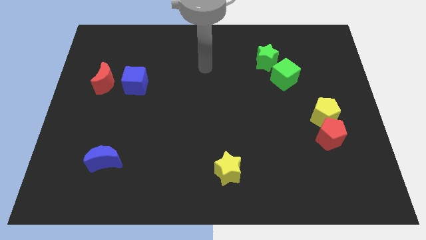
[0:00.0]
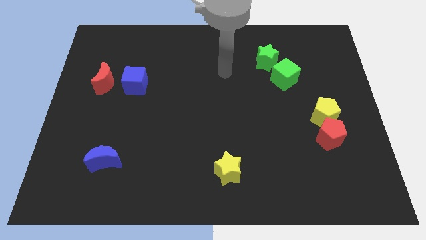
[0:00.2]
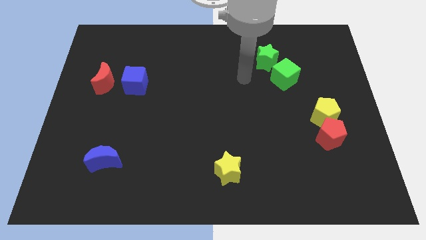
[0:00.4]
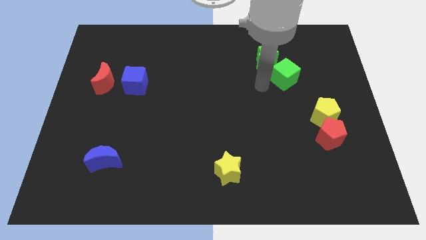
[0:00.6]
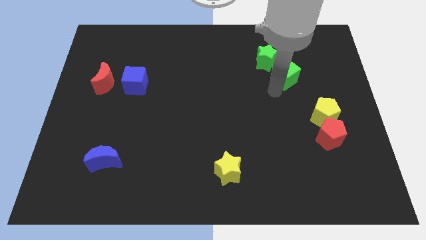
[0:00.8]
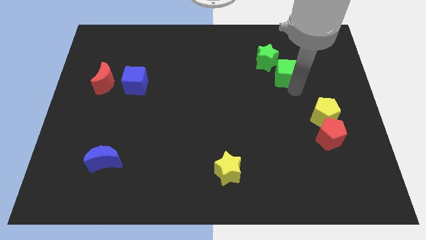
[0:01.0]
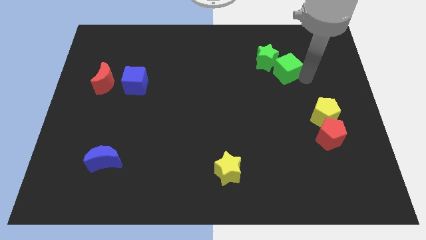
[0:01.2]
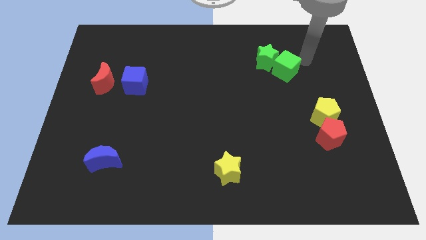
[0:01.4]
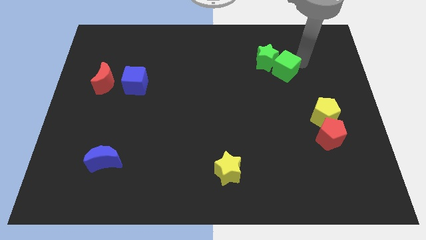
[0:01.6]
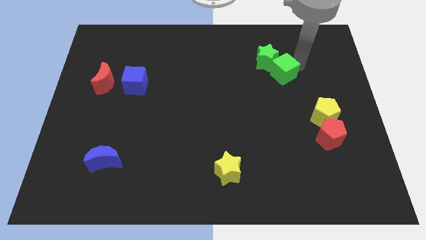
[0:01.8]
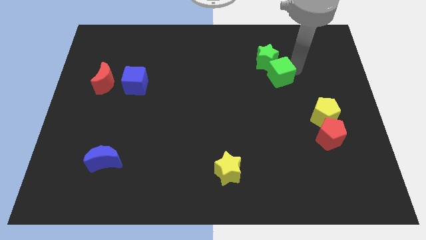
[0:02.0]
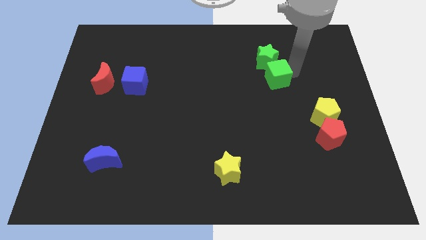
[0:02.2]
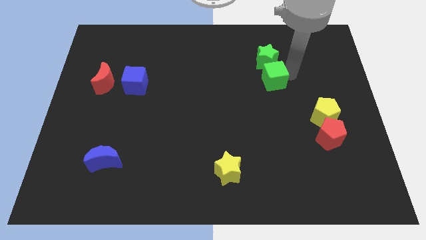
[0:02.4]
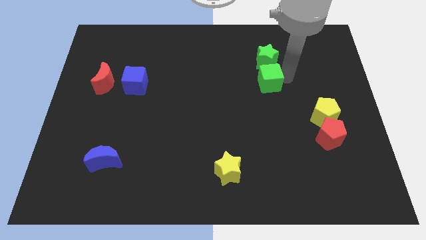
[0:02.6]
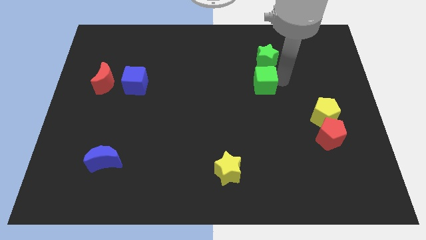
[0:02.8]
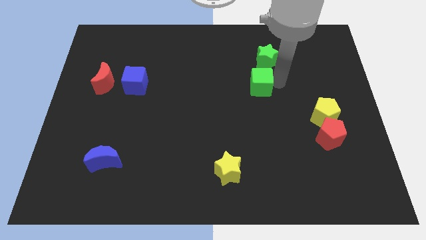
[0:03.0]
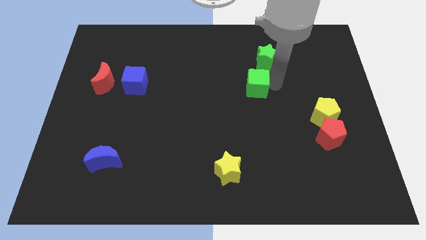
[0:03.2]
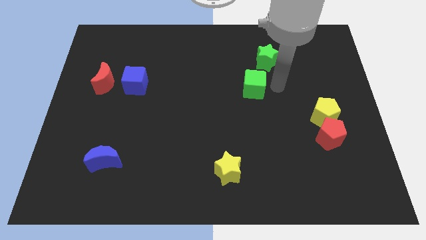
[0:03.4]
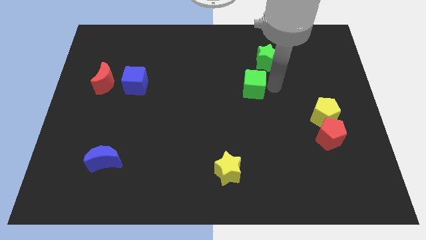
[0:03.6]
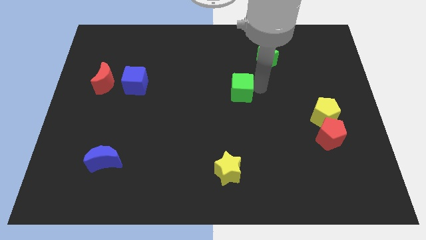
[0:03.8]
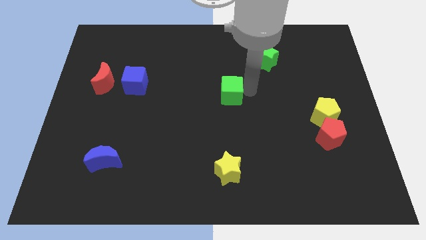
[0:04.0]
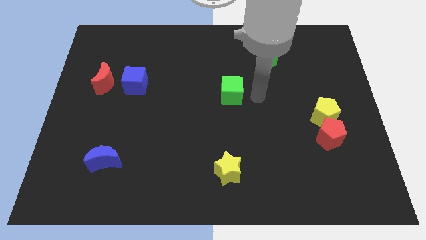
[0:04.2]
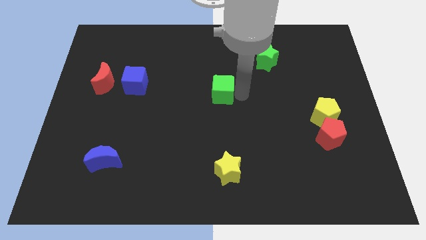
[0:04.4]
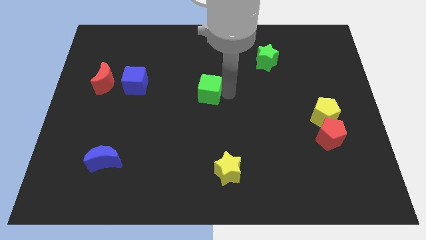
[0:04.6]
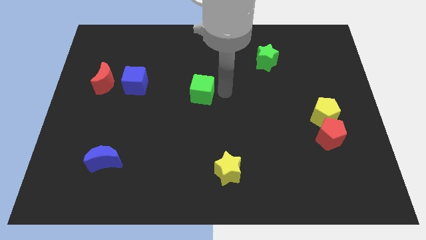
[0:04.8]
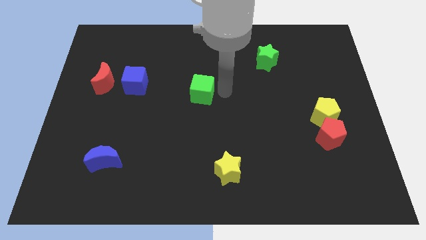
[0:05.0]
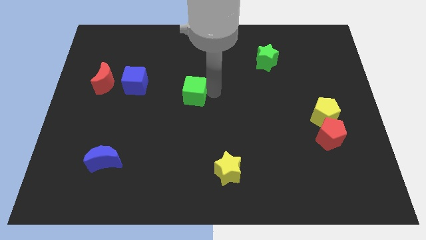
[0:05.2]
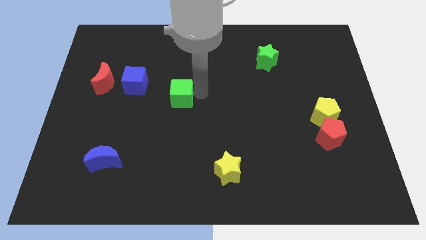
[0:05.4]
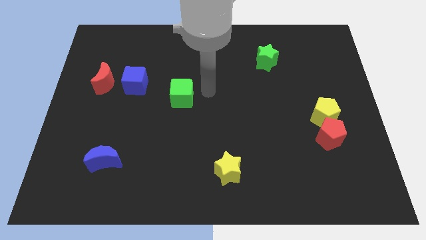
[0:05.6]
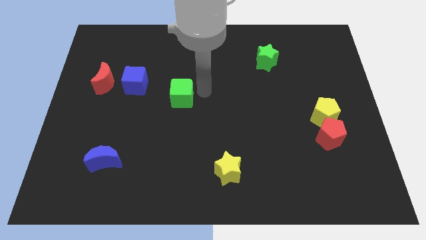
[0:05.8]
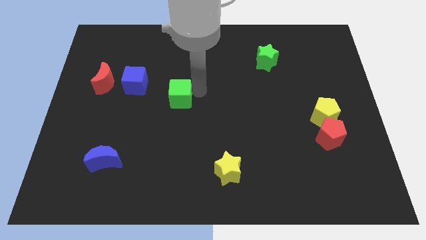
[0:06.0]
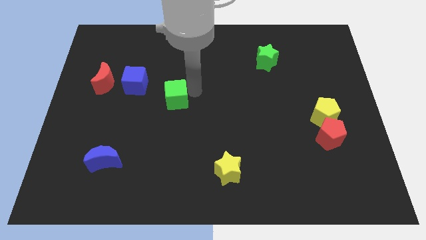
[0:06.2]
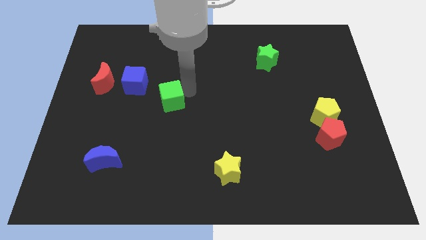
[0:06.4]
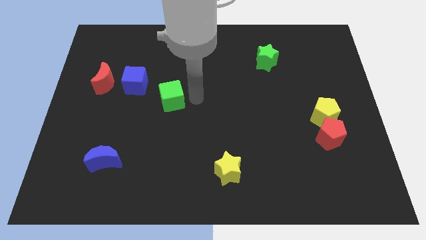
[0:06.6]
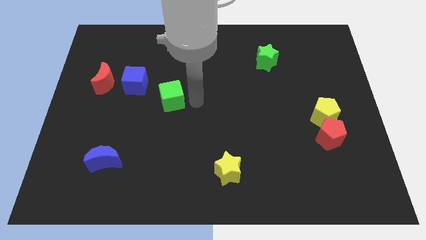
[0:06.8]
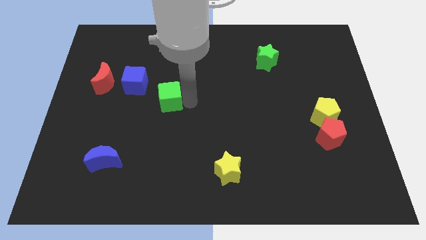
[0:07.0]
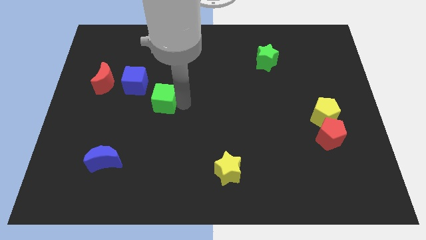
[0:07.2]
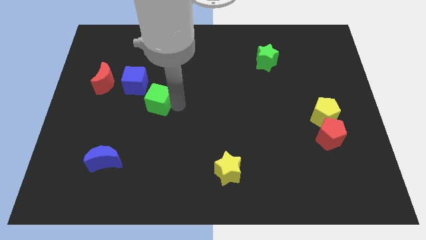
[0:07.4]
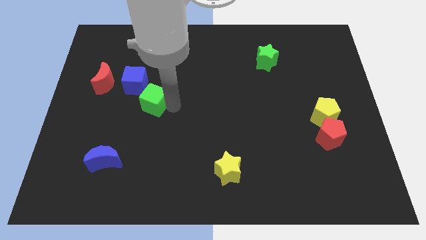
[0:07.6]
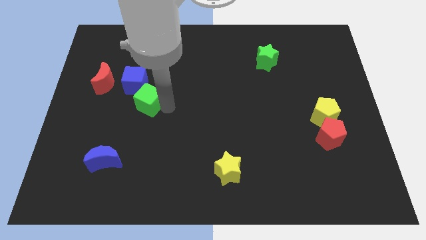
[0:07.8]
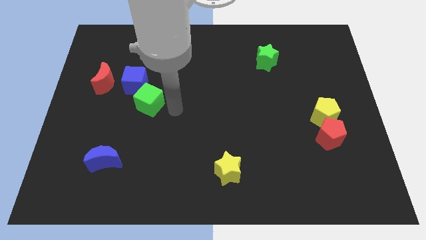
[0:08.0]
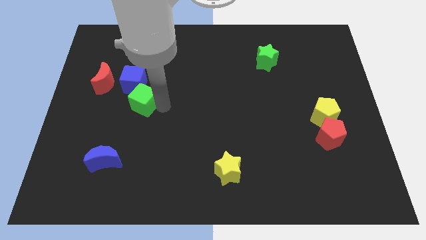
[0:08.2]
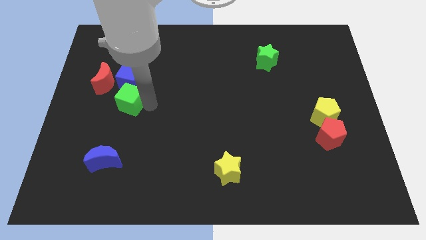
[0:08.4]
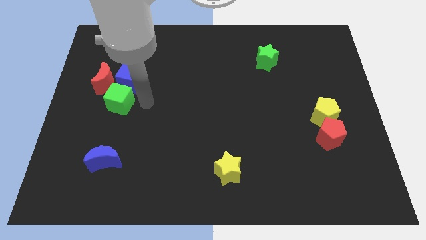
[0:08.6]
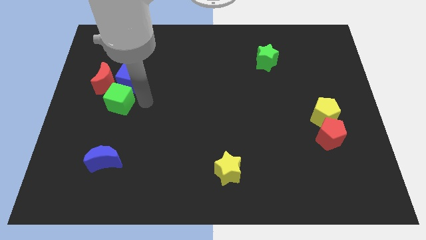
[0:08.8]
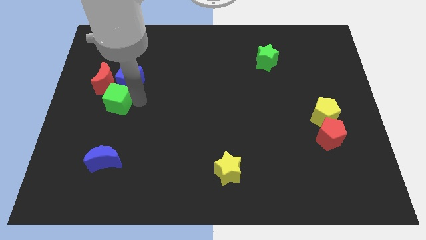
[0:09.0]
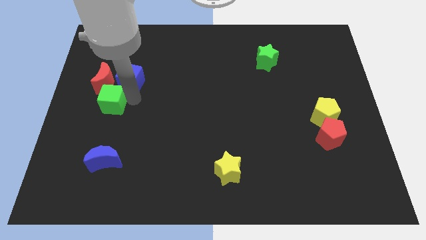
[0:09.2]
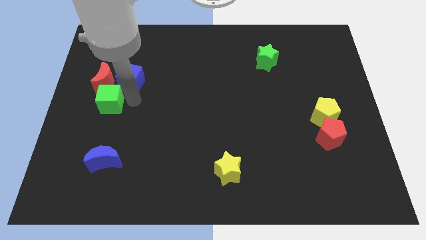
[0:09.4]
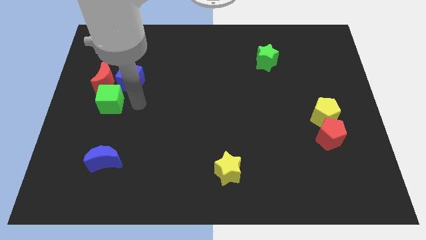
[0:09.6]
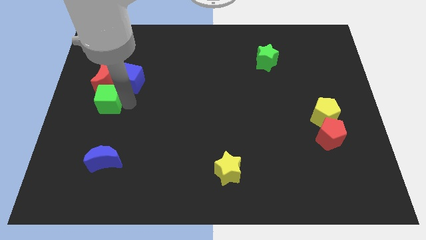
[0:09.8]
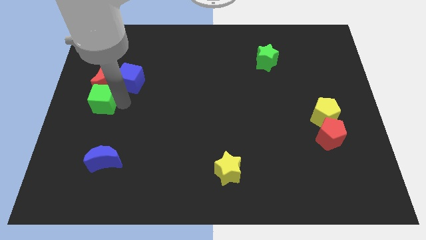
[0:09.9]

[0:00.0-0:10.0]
put the green cube to the left side of the board

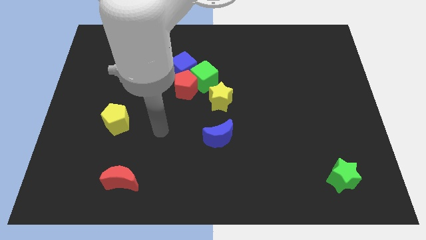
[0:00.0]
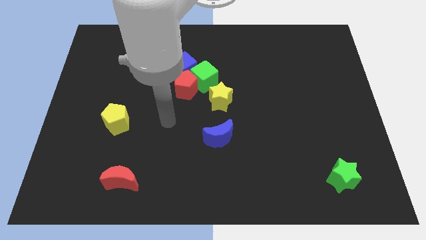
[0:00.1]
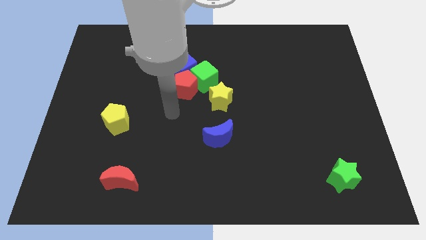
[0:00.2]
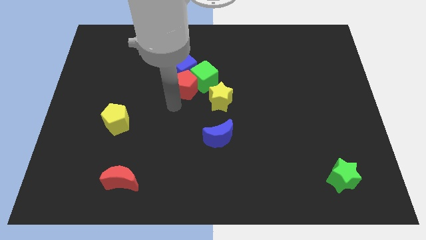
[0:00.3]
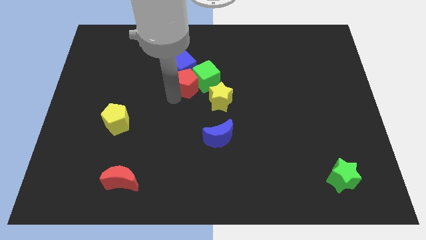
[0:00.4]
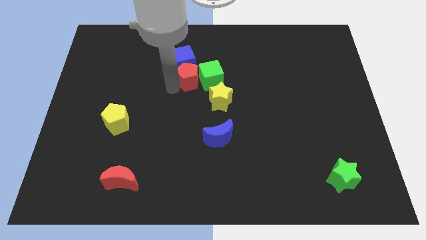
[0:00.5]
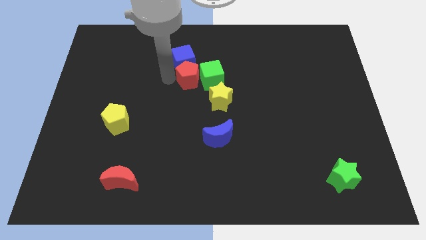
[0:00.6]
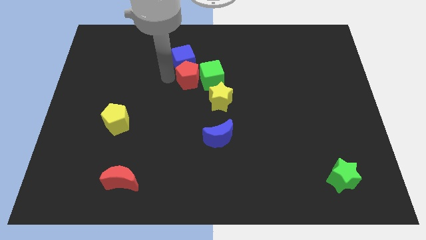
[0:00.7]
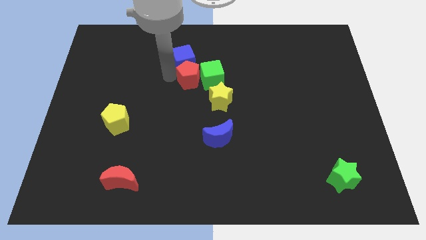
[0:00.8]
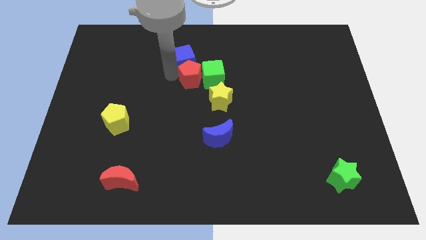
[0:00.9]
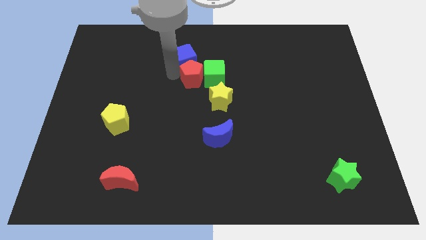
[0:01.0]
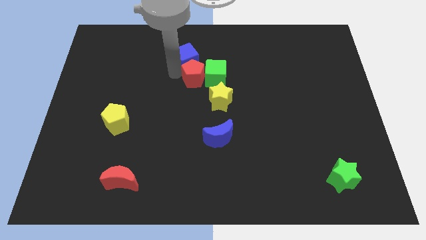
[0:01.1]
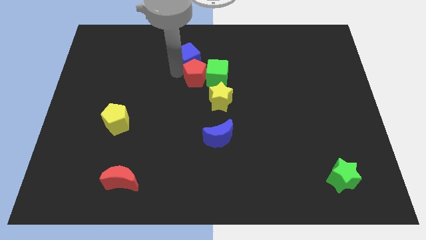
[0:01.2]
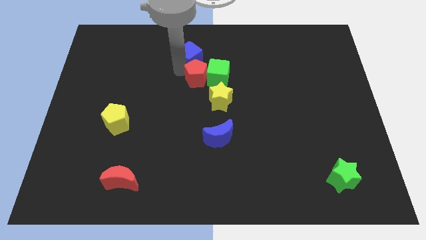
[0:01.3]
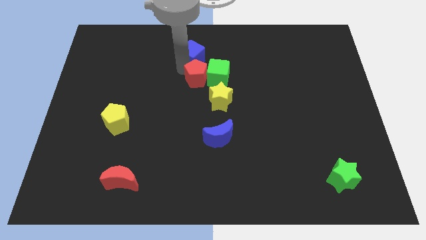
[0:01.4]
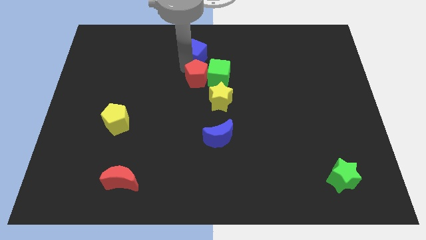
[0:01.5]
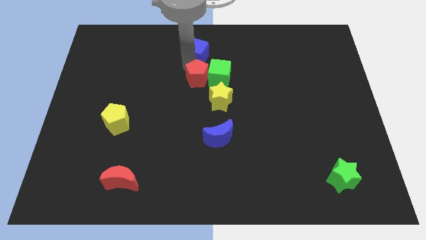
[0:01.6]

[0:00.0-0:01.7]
move the blue cube to the top
